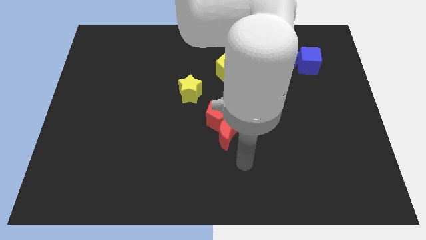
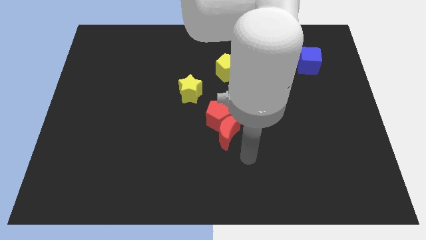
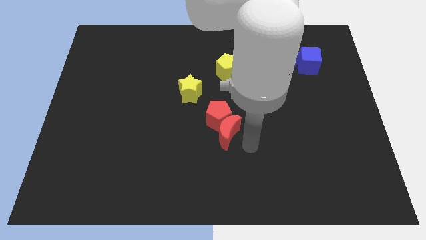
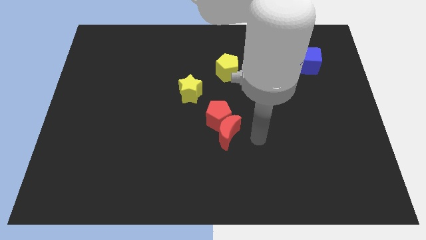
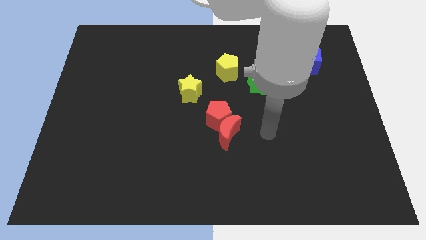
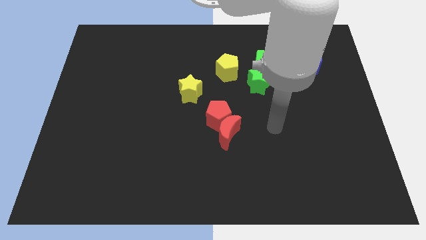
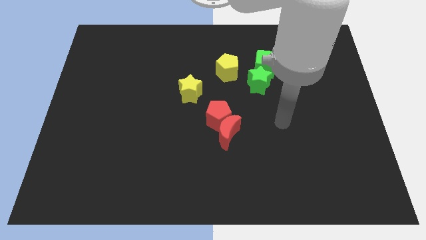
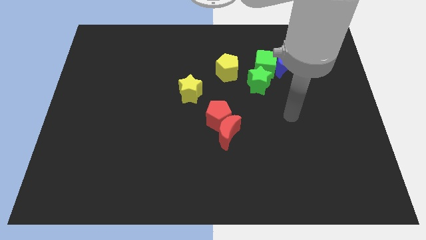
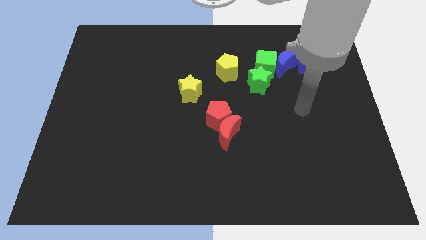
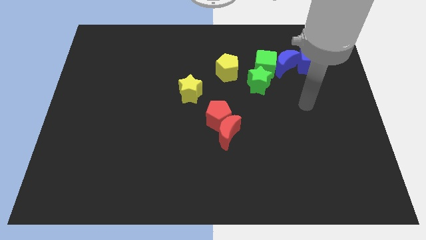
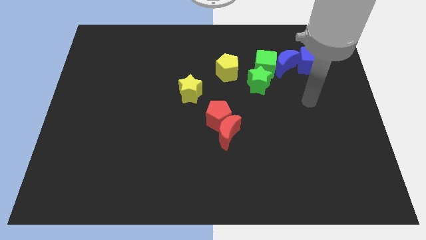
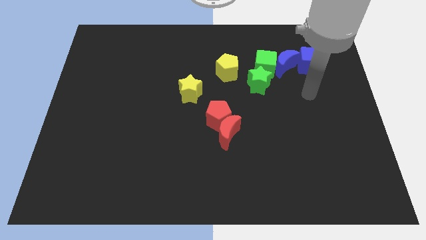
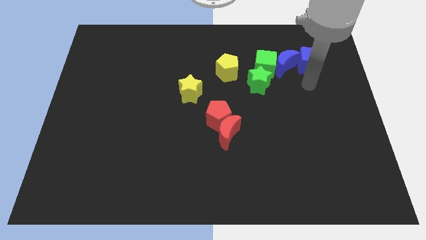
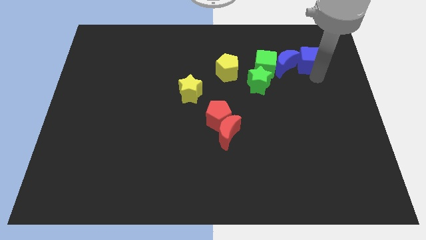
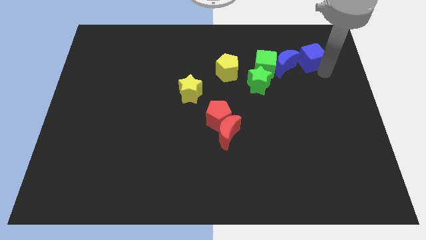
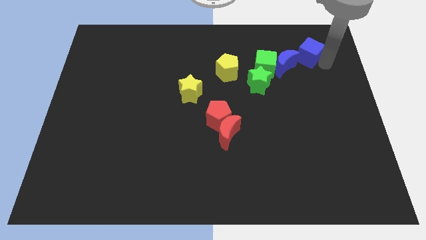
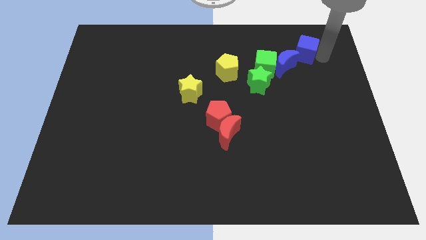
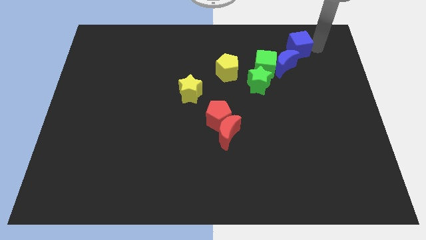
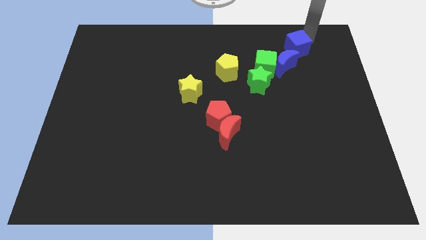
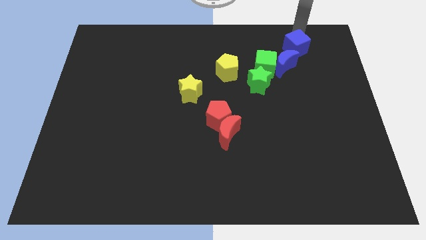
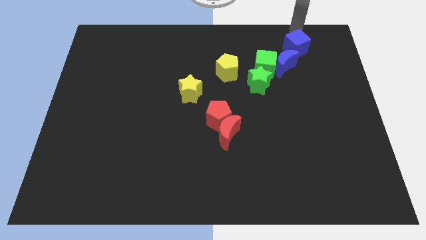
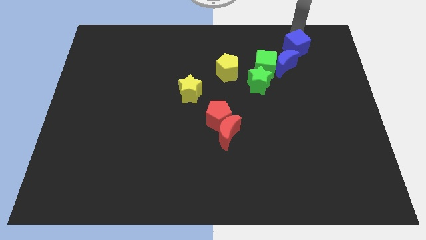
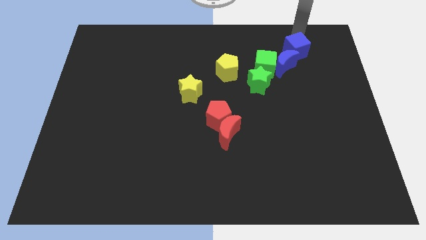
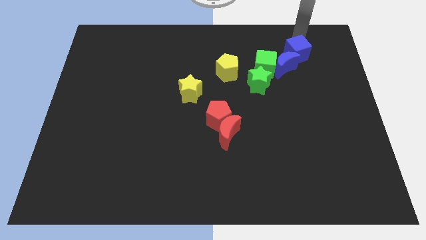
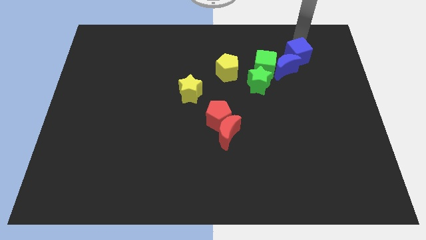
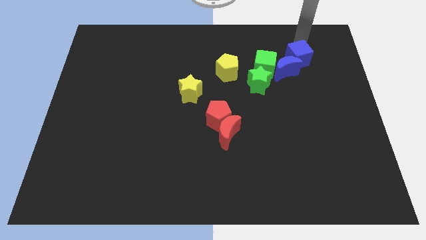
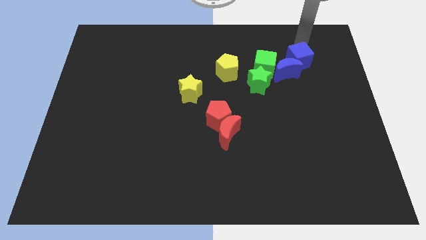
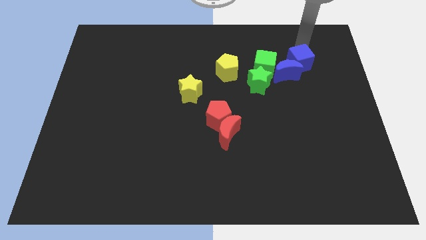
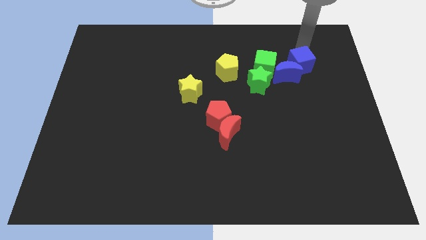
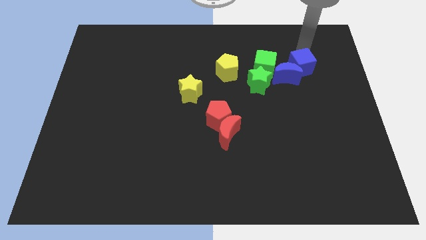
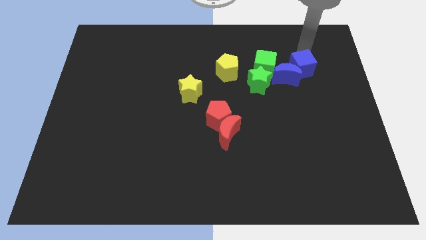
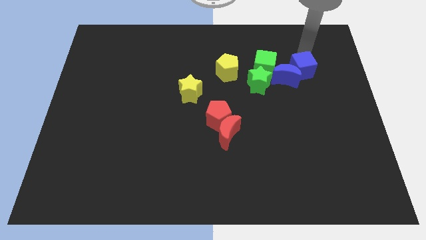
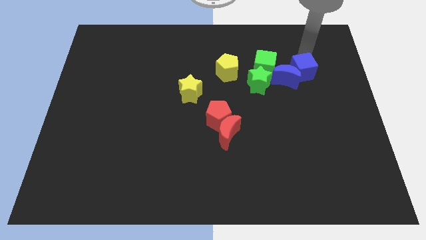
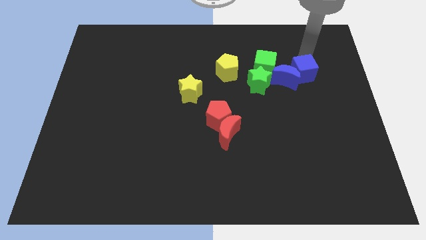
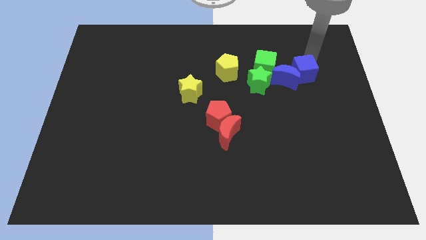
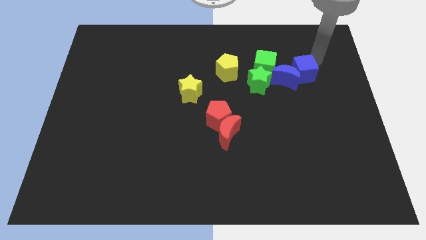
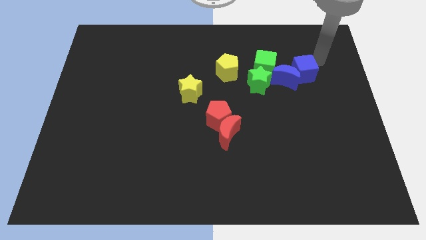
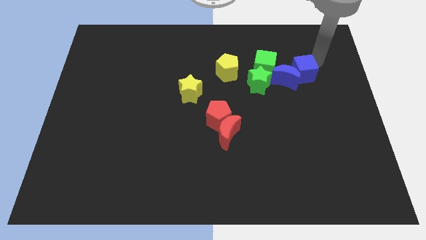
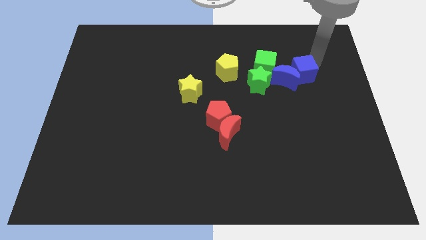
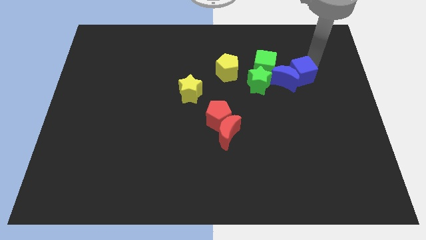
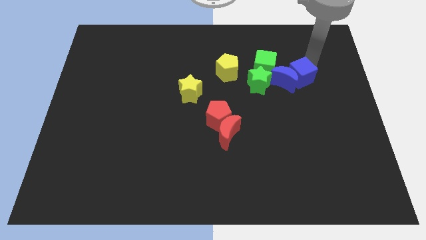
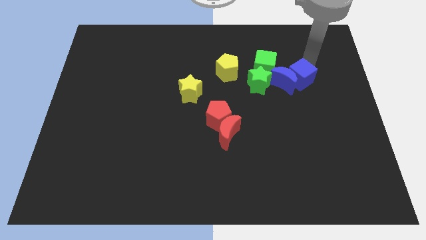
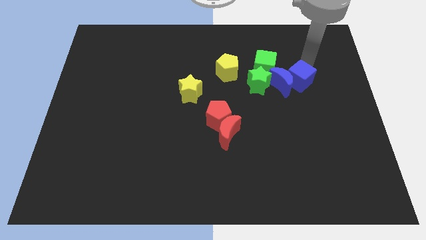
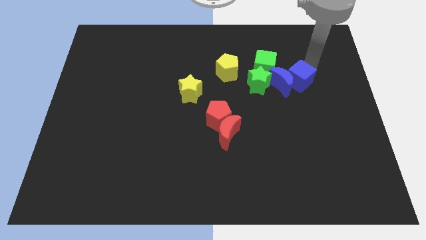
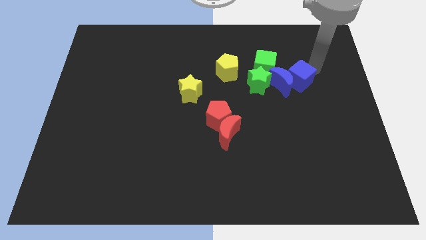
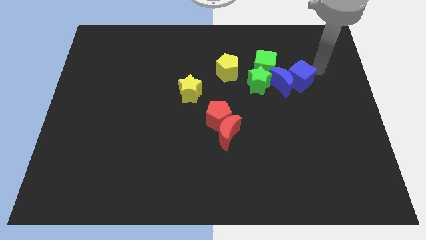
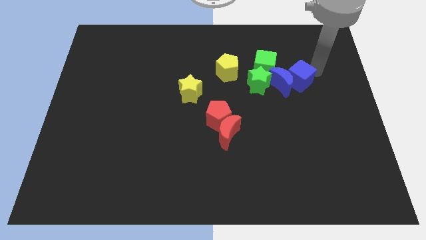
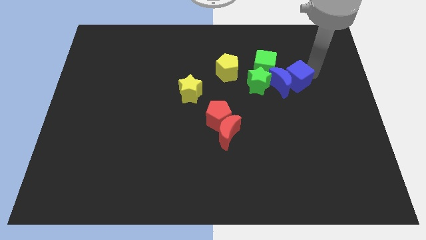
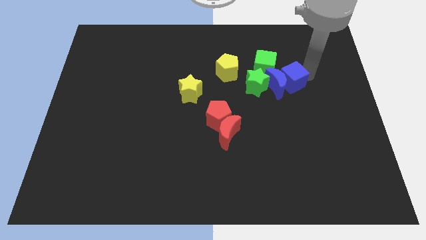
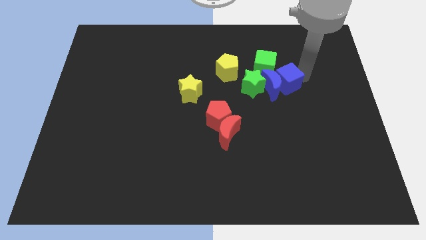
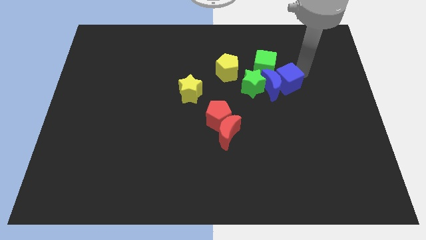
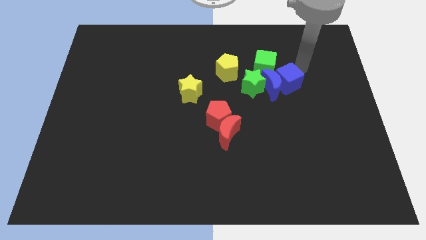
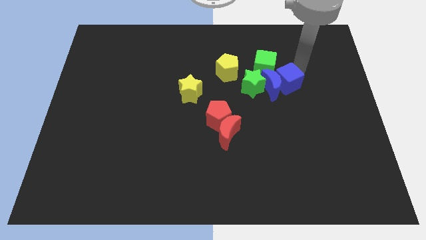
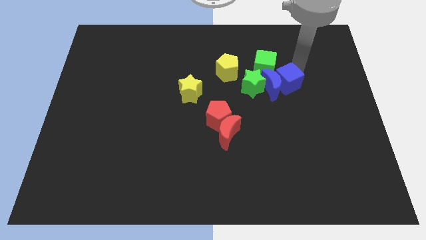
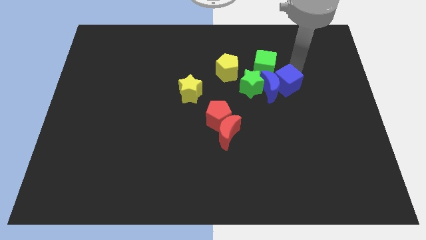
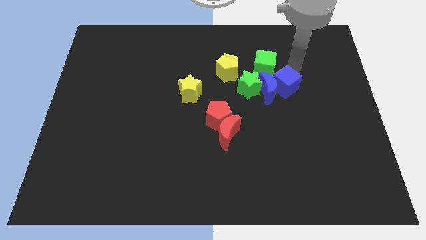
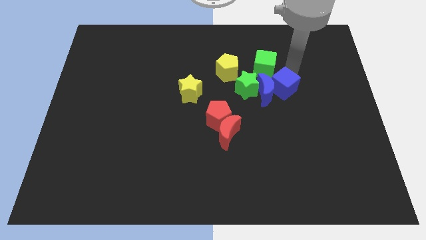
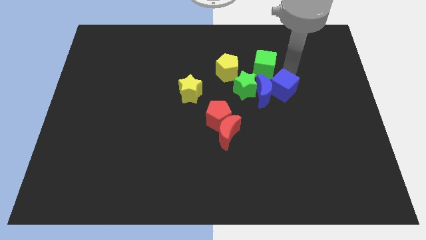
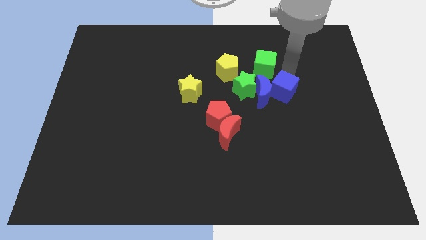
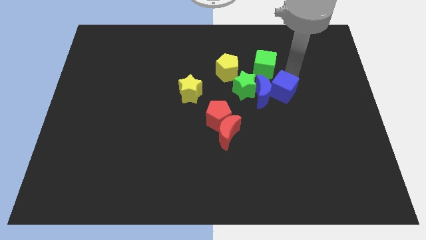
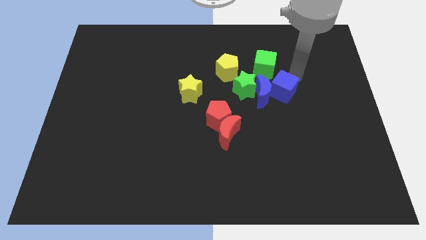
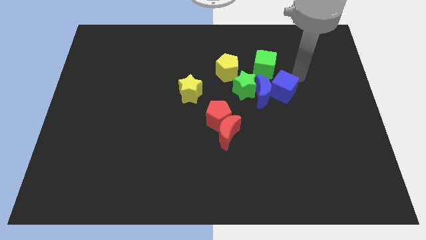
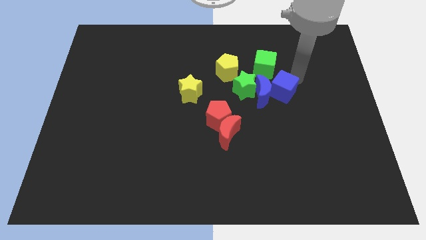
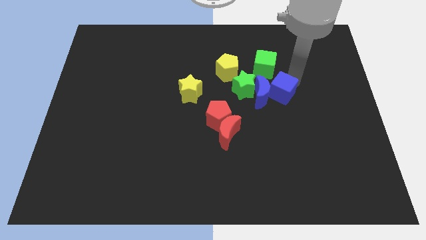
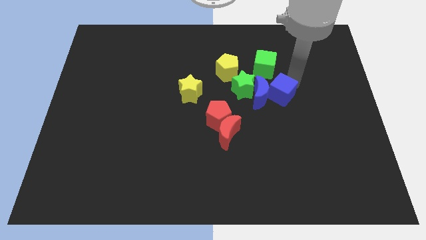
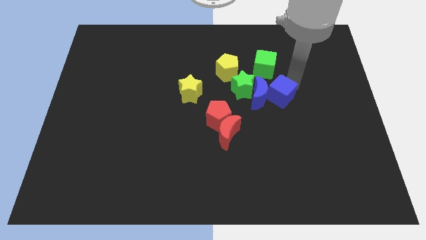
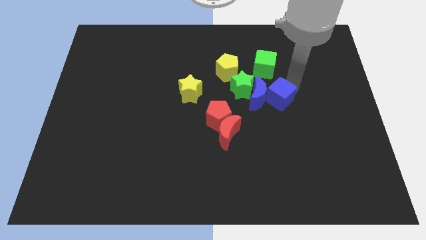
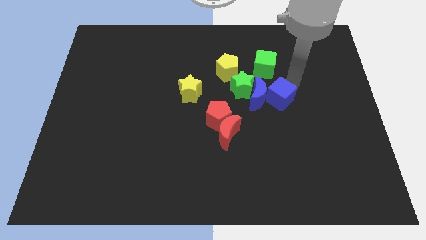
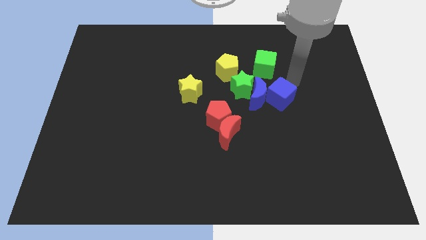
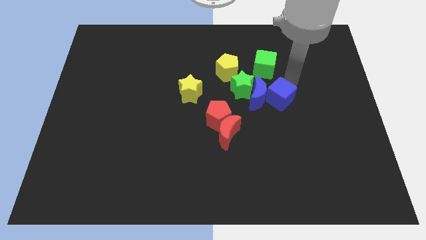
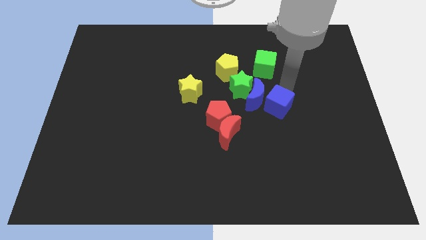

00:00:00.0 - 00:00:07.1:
slide the blue cube to the right side of the red pentagon

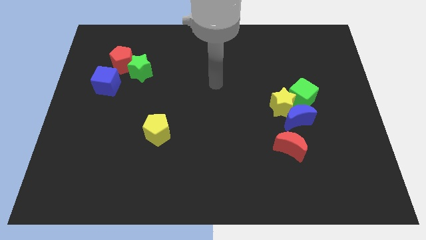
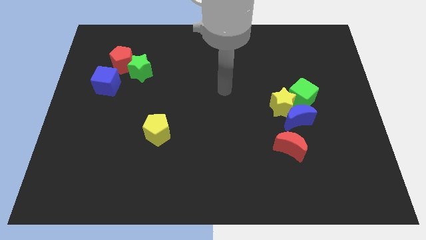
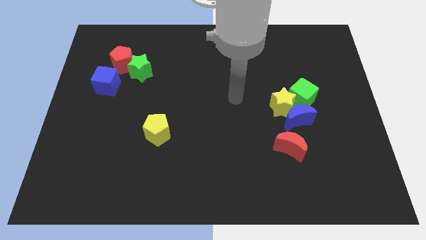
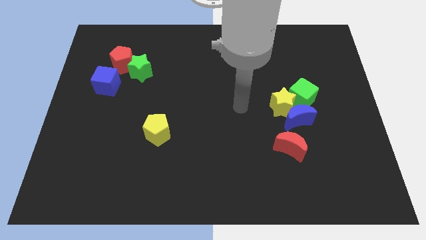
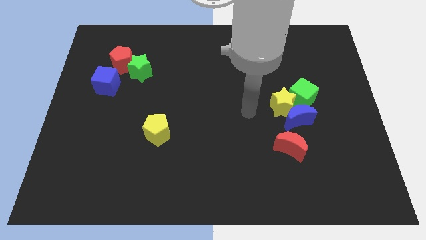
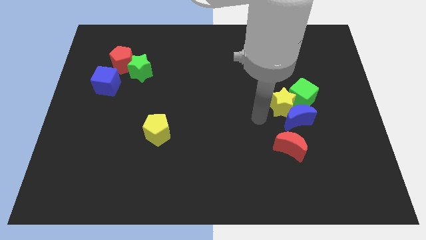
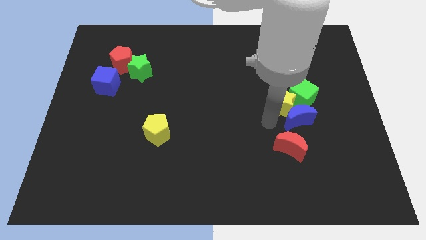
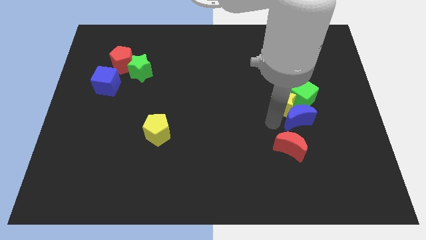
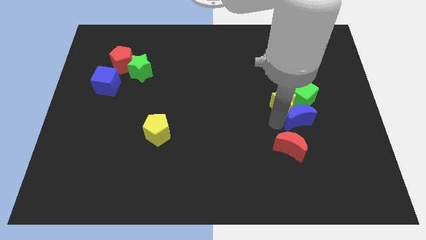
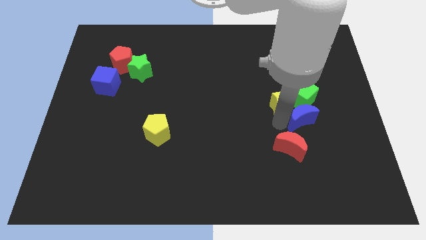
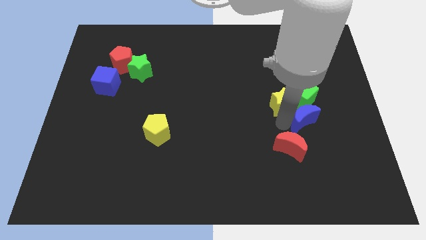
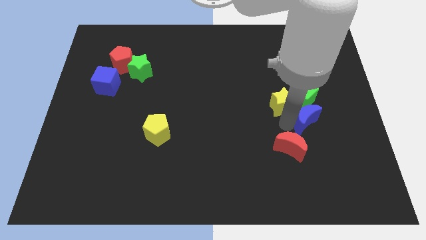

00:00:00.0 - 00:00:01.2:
slide the blue moon to the bottom right of the green cube

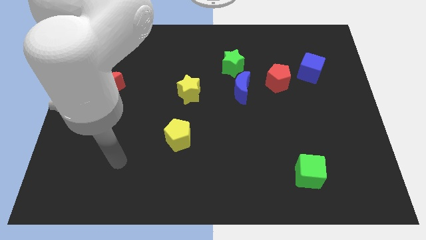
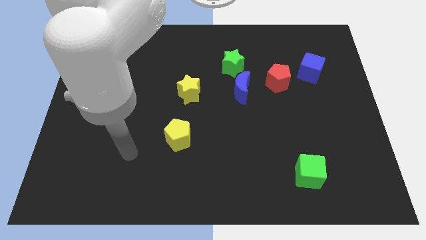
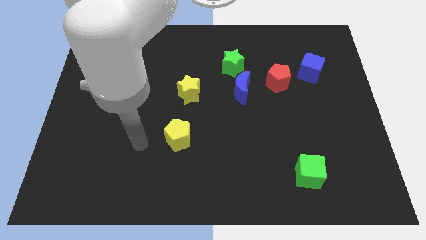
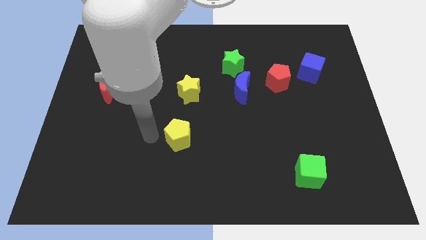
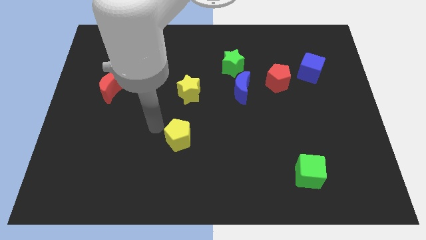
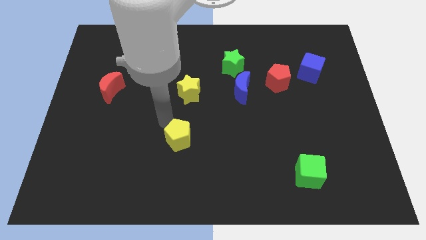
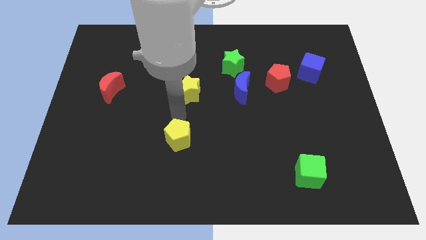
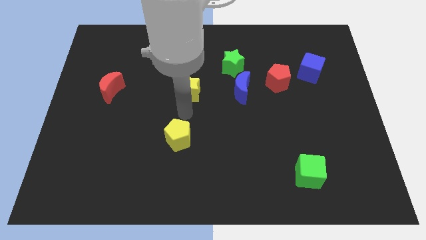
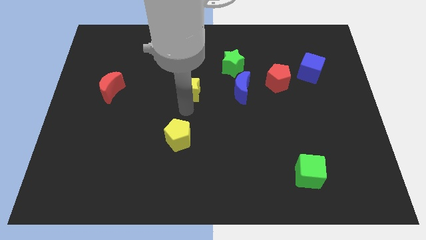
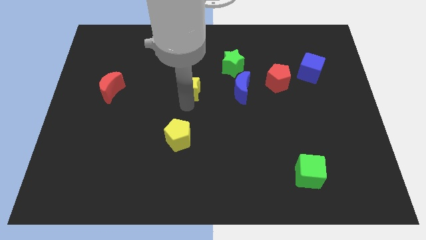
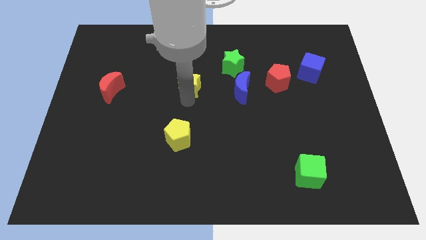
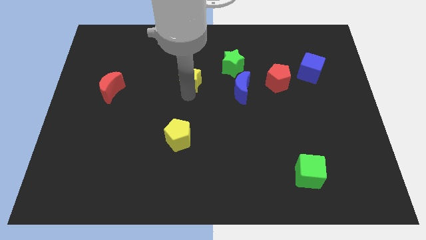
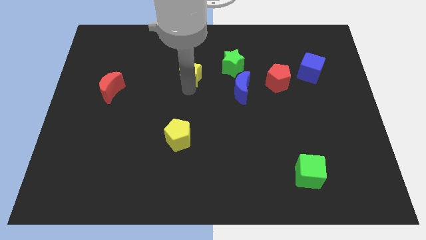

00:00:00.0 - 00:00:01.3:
slide the yellow star to the left side of the green star
